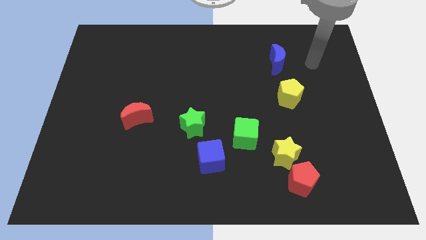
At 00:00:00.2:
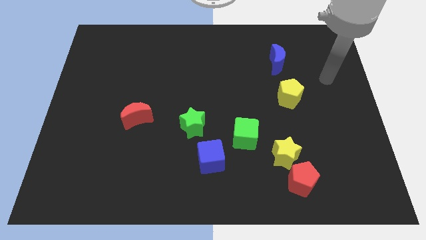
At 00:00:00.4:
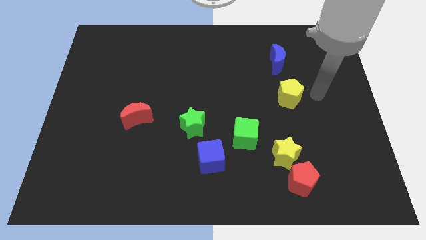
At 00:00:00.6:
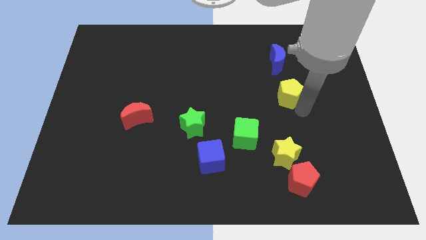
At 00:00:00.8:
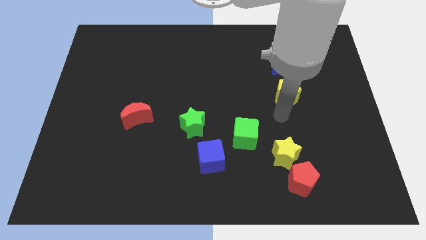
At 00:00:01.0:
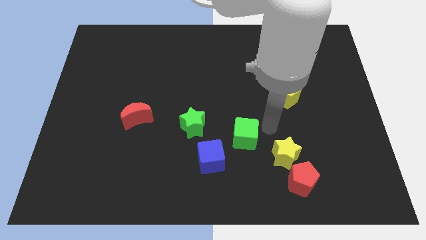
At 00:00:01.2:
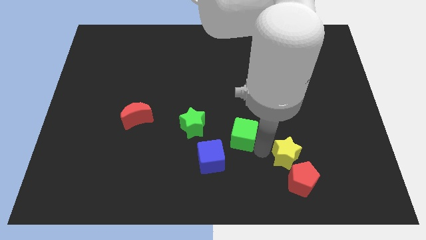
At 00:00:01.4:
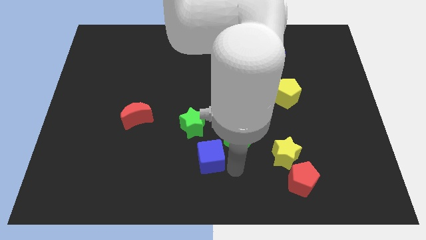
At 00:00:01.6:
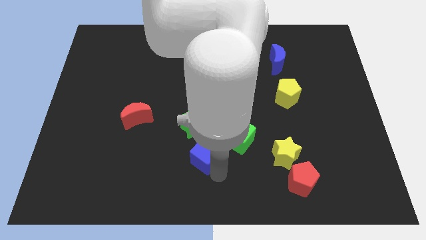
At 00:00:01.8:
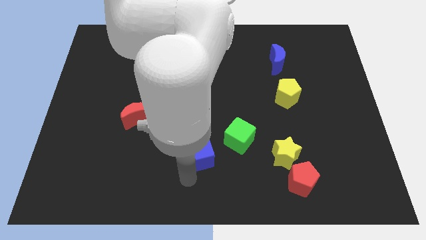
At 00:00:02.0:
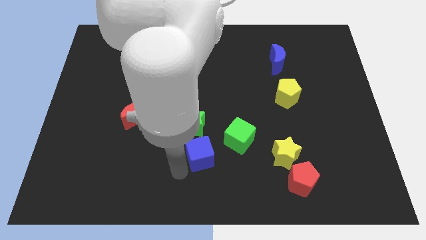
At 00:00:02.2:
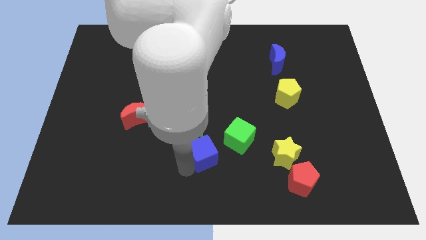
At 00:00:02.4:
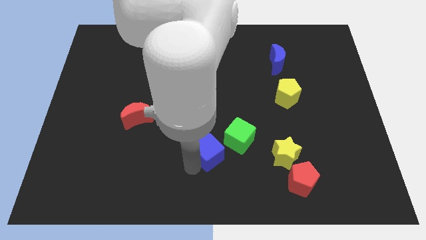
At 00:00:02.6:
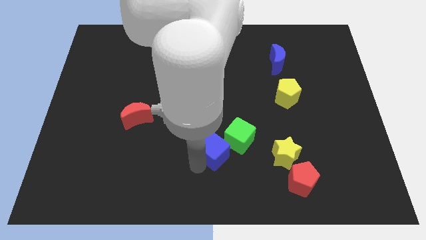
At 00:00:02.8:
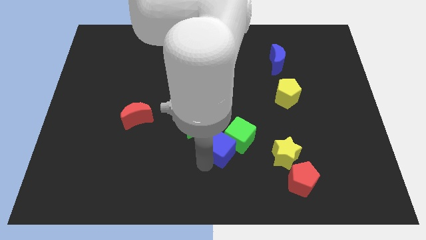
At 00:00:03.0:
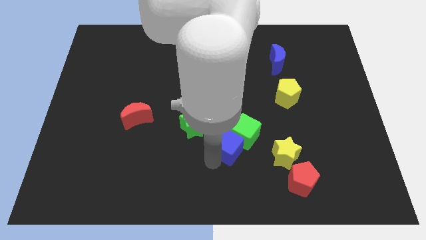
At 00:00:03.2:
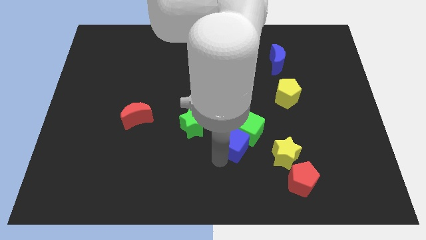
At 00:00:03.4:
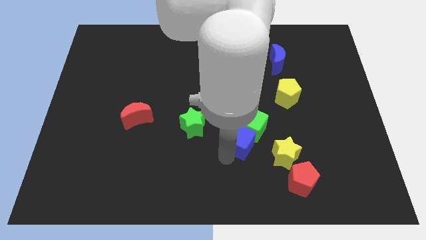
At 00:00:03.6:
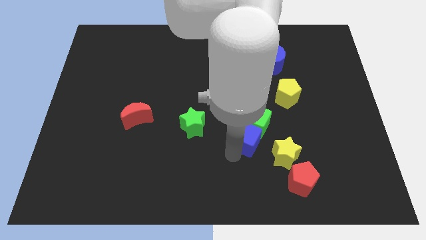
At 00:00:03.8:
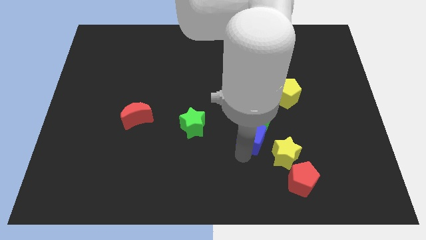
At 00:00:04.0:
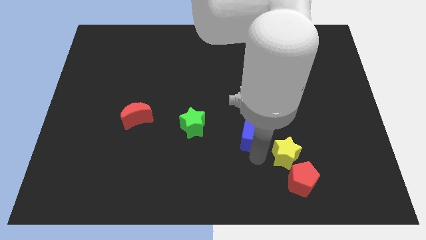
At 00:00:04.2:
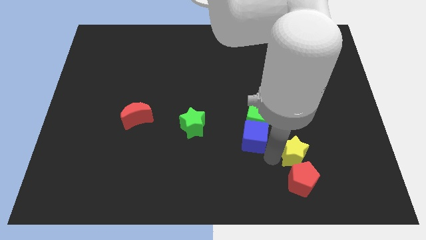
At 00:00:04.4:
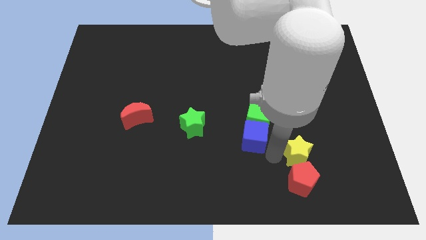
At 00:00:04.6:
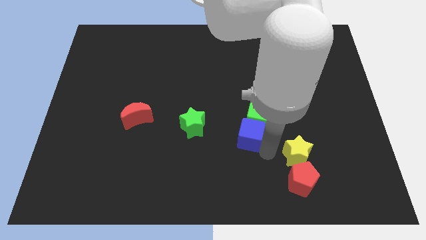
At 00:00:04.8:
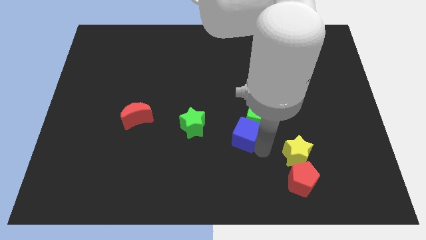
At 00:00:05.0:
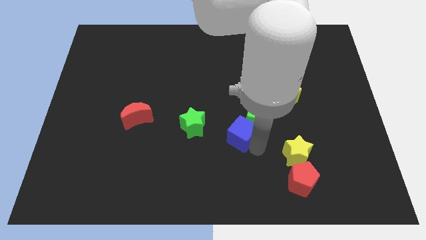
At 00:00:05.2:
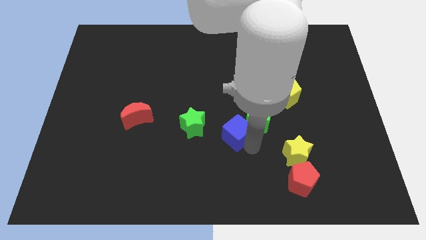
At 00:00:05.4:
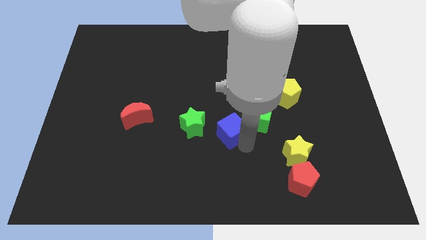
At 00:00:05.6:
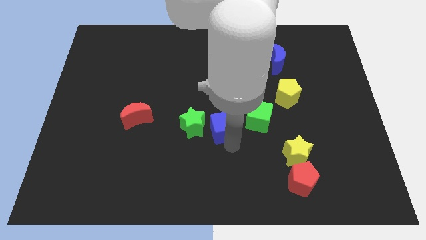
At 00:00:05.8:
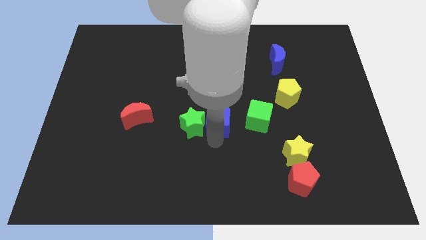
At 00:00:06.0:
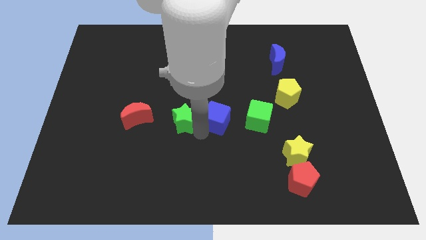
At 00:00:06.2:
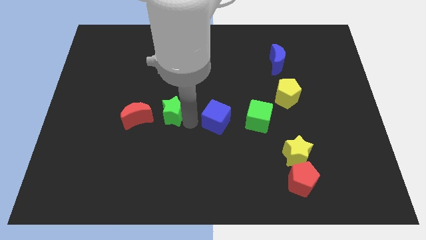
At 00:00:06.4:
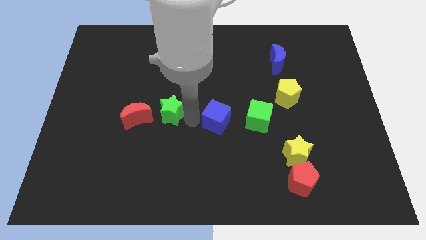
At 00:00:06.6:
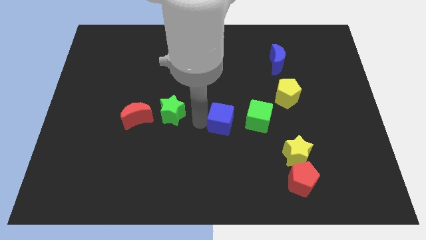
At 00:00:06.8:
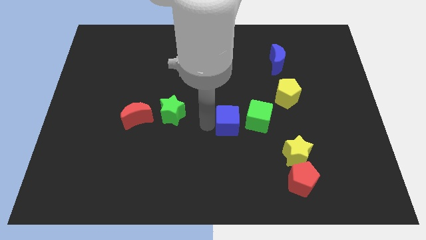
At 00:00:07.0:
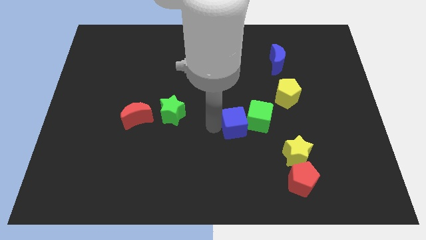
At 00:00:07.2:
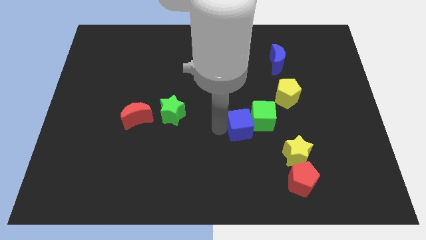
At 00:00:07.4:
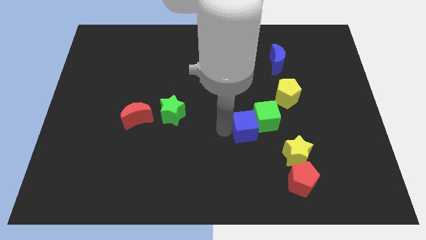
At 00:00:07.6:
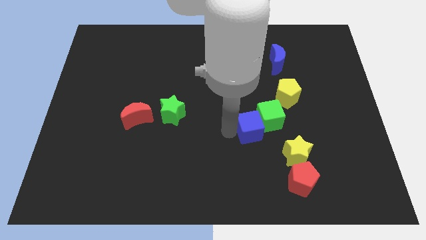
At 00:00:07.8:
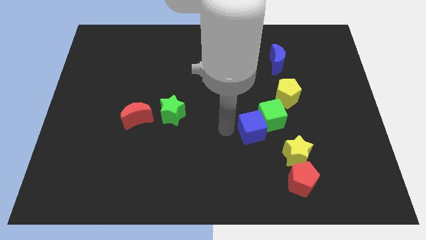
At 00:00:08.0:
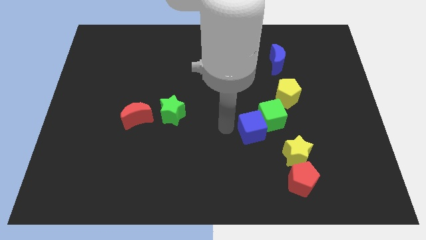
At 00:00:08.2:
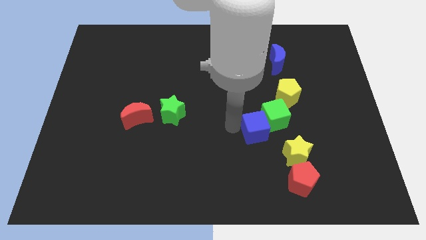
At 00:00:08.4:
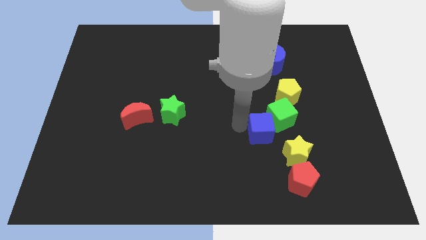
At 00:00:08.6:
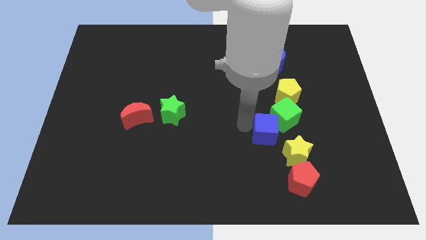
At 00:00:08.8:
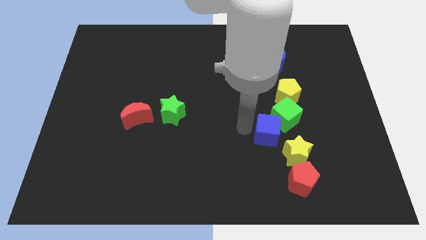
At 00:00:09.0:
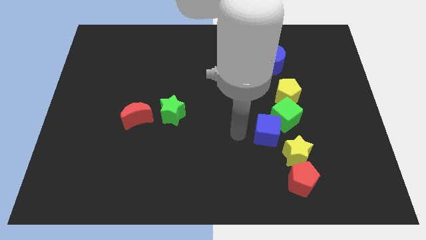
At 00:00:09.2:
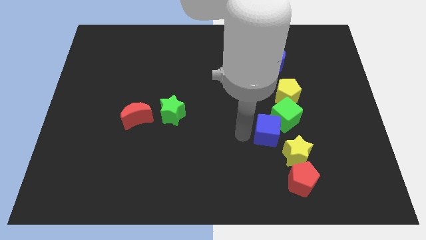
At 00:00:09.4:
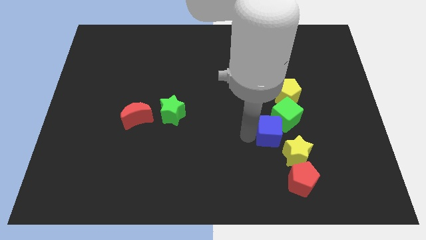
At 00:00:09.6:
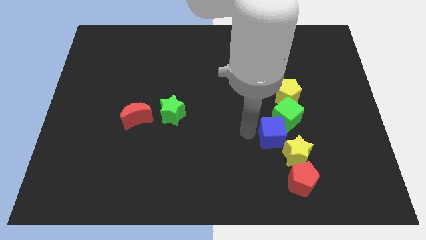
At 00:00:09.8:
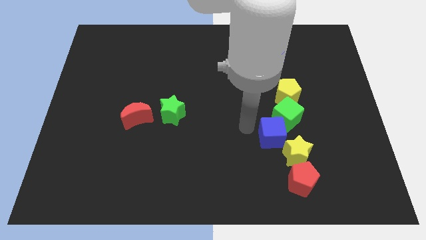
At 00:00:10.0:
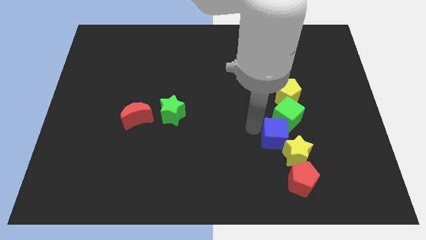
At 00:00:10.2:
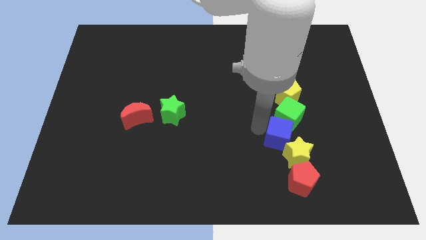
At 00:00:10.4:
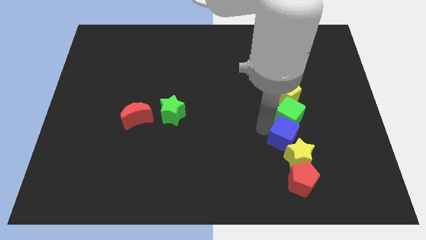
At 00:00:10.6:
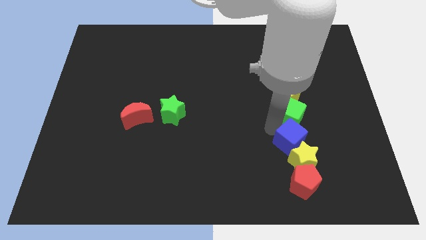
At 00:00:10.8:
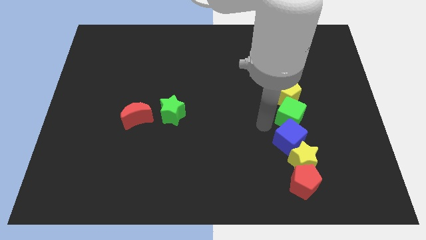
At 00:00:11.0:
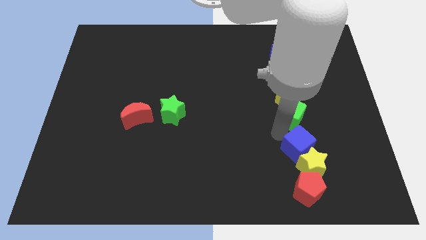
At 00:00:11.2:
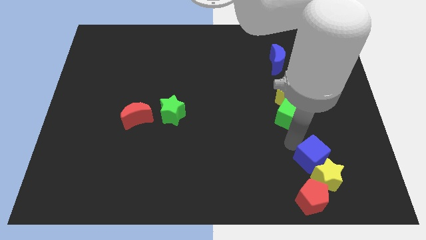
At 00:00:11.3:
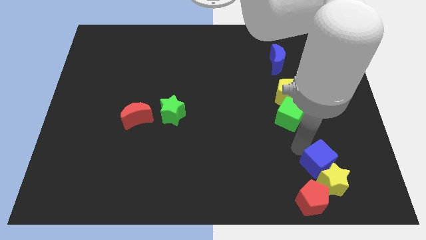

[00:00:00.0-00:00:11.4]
put the blue cube diagonally up and to the right of the red pentagon

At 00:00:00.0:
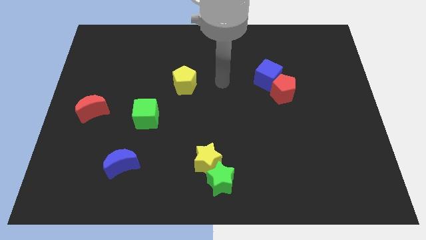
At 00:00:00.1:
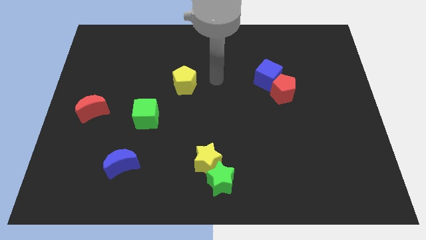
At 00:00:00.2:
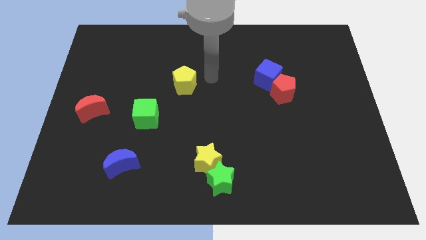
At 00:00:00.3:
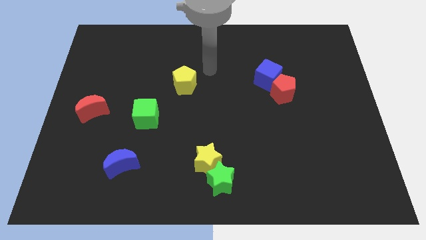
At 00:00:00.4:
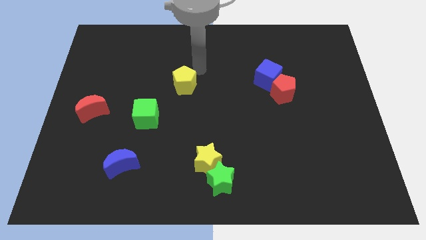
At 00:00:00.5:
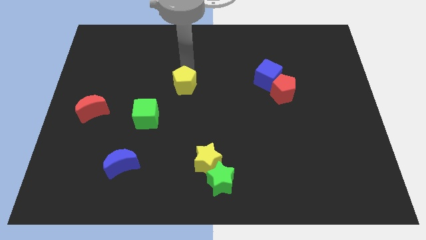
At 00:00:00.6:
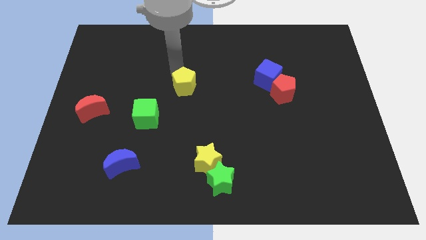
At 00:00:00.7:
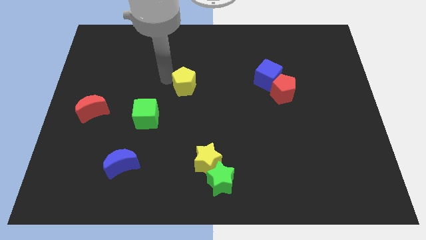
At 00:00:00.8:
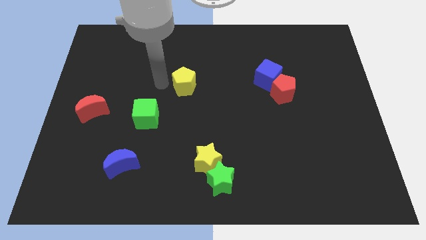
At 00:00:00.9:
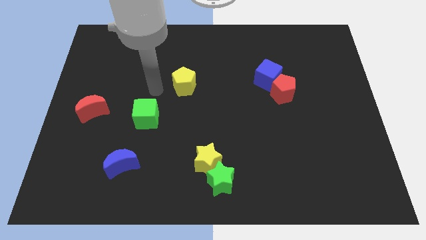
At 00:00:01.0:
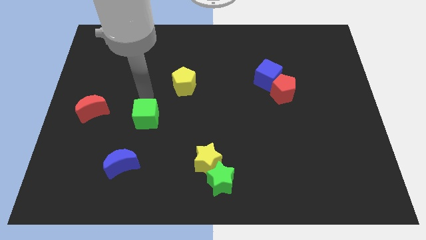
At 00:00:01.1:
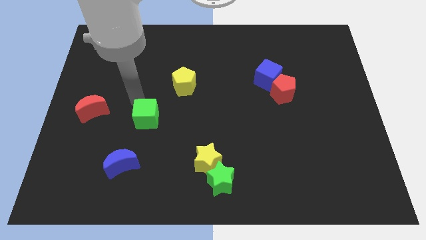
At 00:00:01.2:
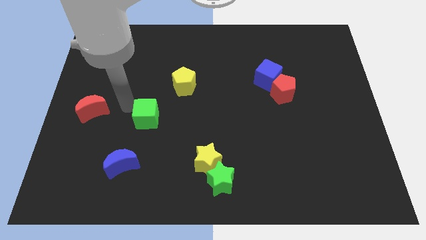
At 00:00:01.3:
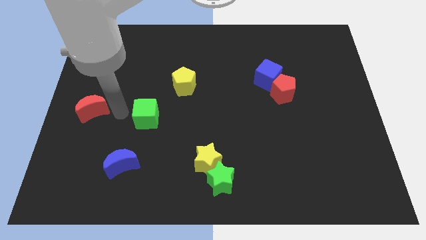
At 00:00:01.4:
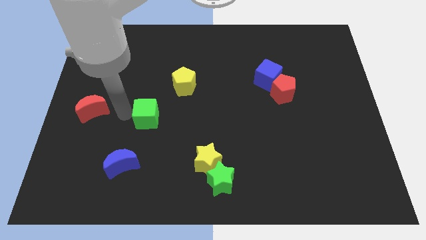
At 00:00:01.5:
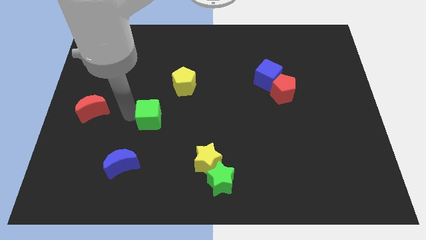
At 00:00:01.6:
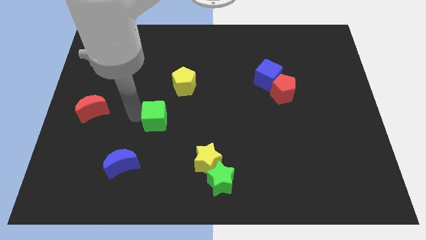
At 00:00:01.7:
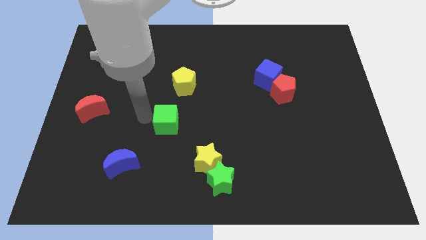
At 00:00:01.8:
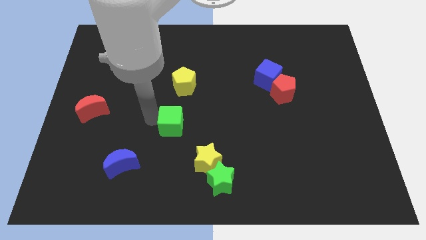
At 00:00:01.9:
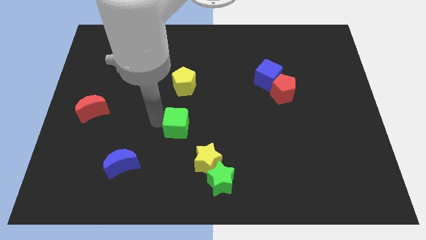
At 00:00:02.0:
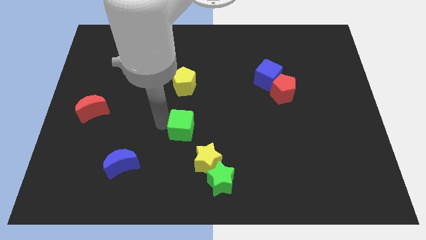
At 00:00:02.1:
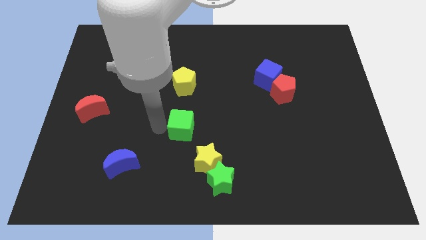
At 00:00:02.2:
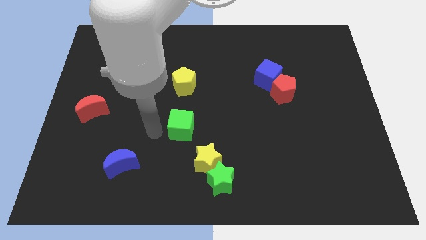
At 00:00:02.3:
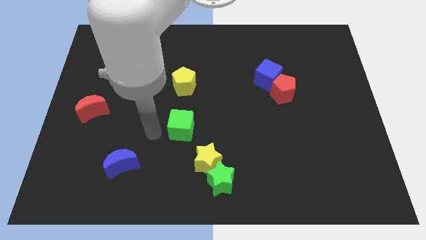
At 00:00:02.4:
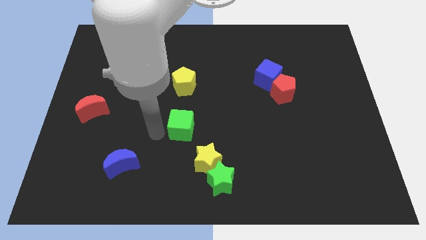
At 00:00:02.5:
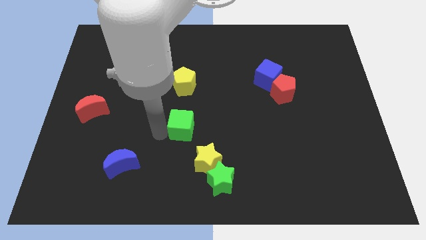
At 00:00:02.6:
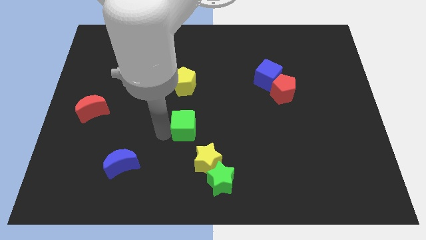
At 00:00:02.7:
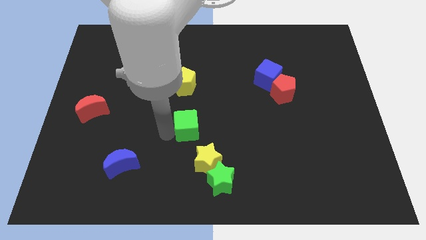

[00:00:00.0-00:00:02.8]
slide the green cube to the top of the yellow star
